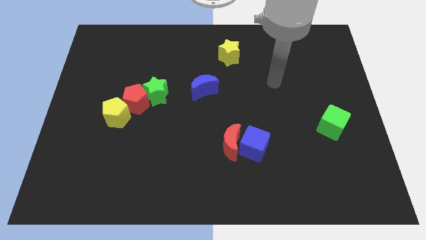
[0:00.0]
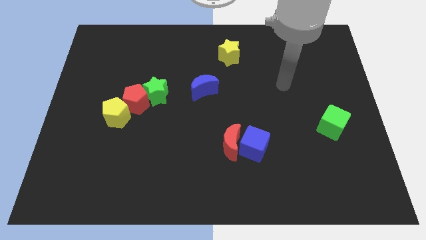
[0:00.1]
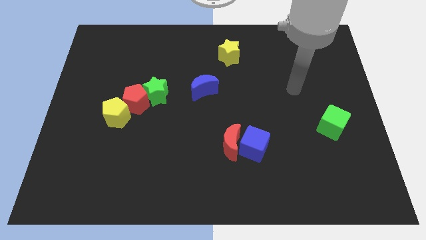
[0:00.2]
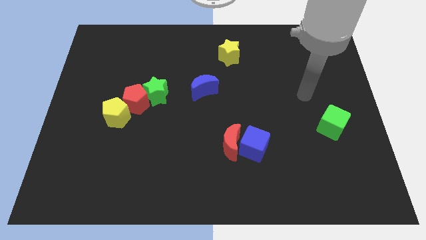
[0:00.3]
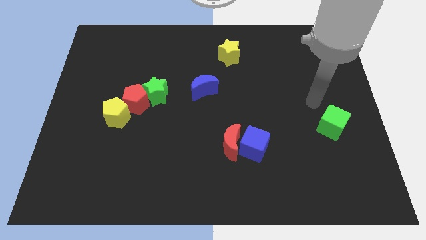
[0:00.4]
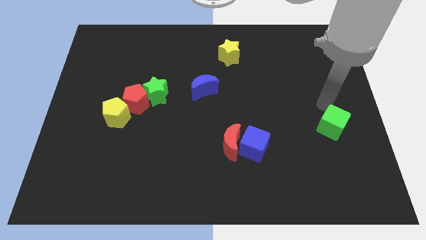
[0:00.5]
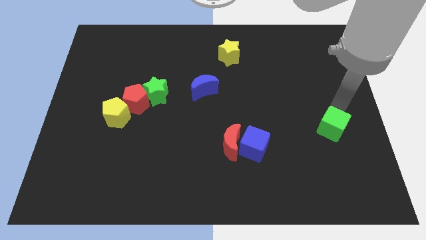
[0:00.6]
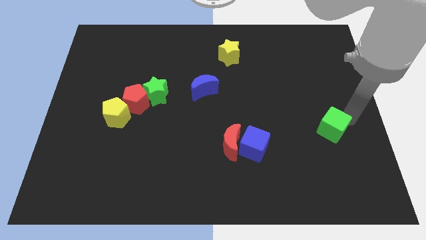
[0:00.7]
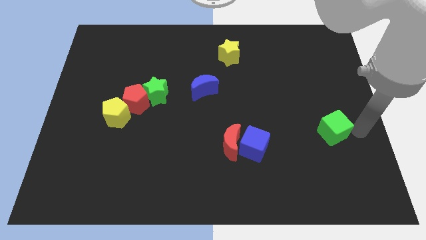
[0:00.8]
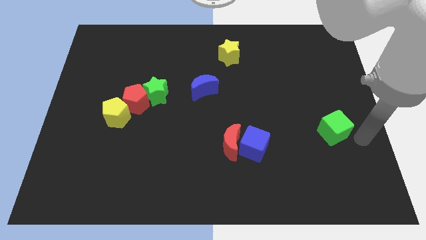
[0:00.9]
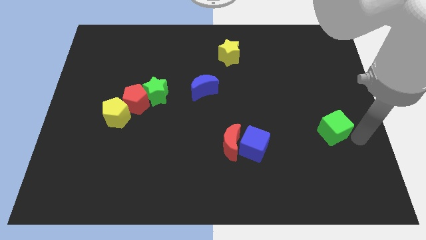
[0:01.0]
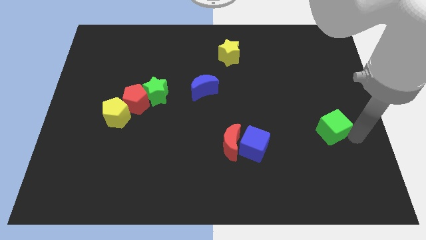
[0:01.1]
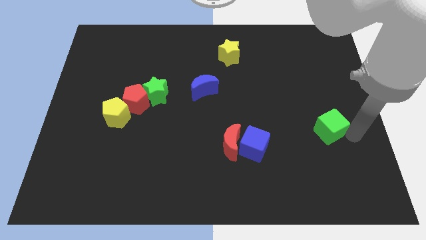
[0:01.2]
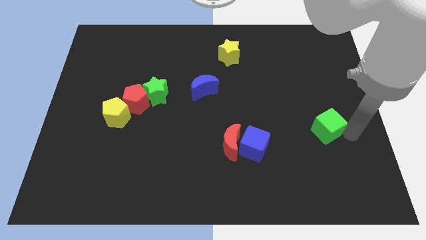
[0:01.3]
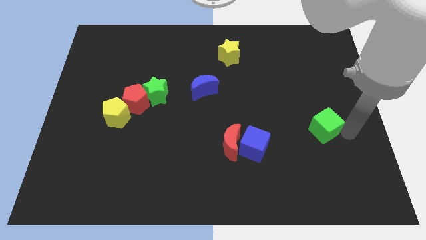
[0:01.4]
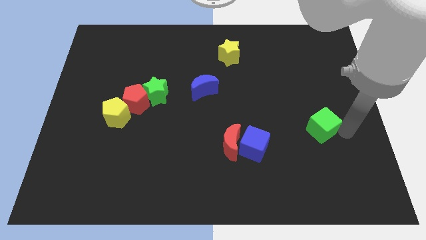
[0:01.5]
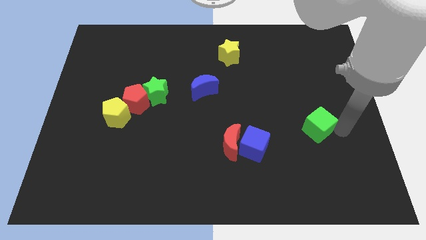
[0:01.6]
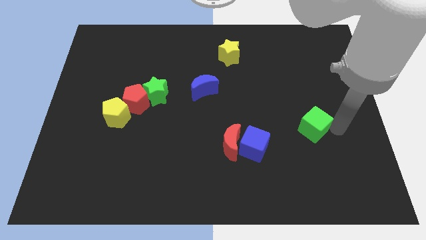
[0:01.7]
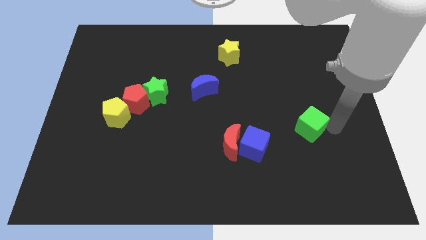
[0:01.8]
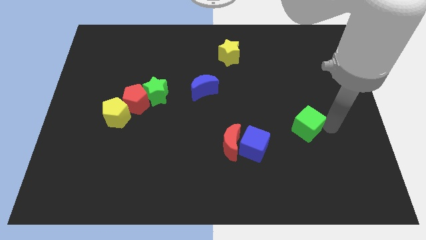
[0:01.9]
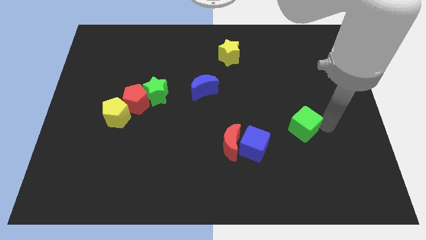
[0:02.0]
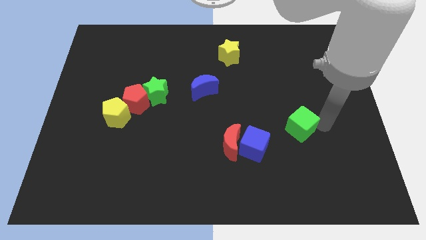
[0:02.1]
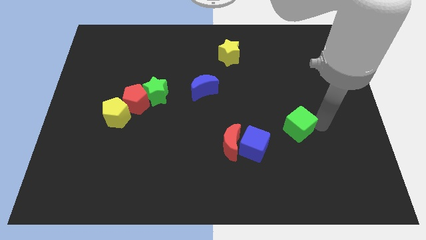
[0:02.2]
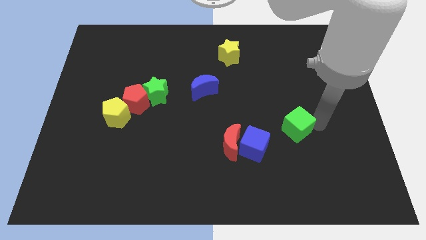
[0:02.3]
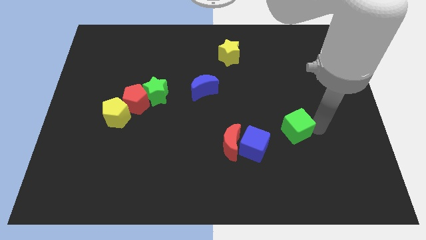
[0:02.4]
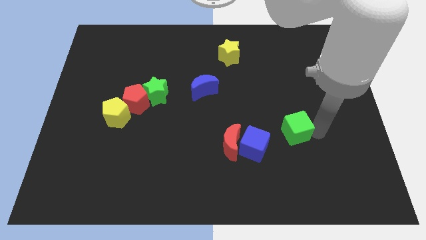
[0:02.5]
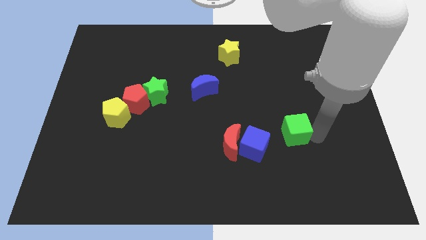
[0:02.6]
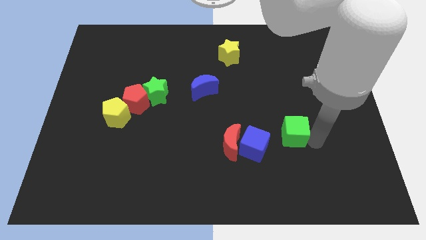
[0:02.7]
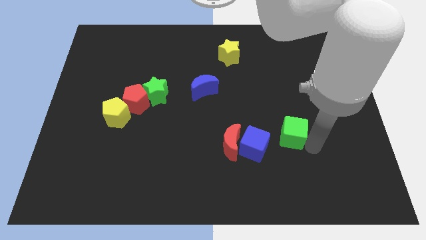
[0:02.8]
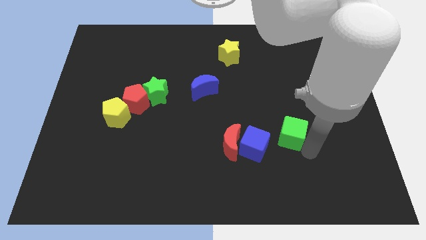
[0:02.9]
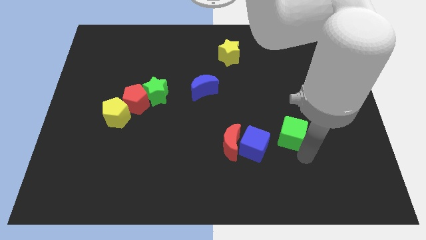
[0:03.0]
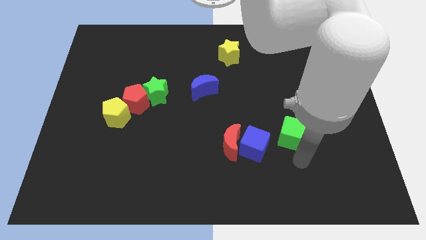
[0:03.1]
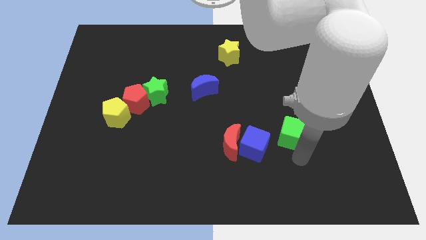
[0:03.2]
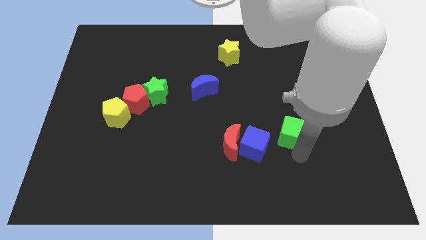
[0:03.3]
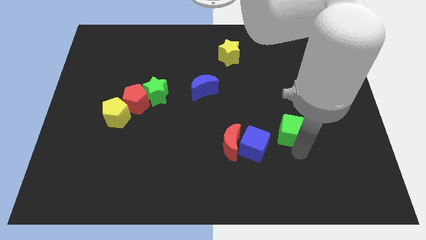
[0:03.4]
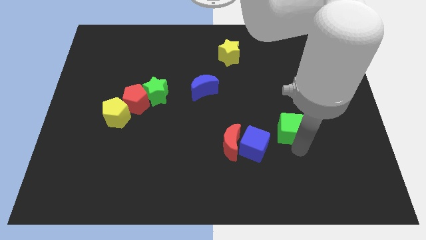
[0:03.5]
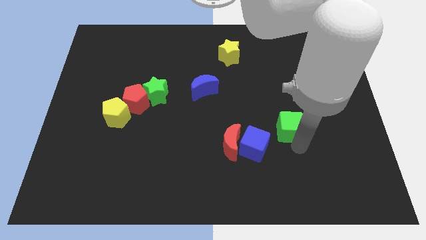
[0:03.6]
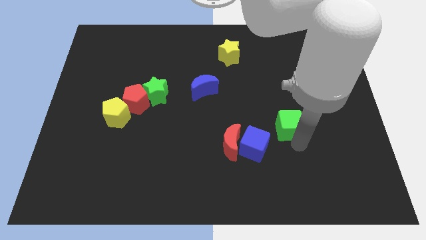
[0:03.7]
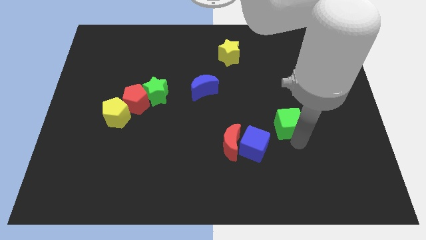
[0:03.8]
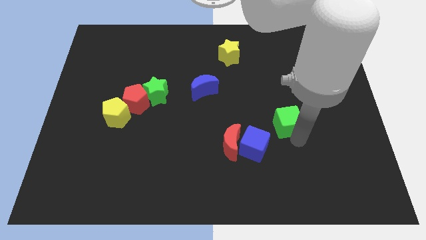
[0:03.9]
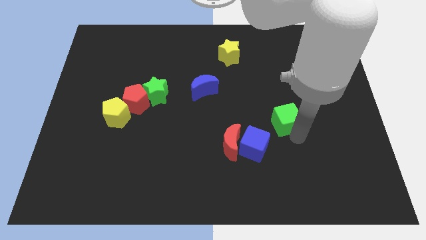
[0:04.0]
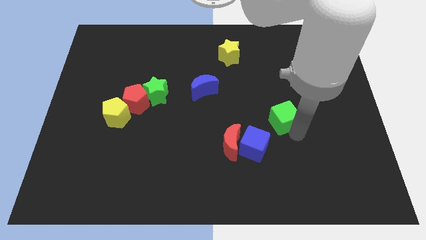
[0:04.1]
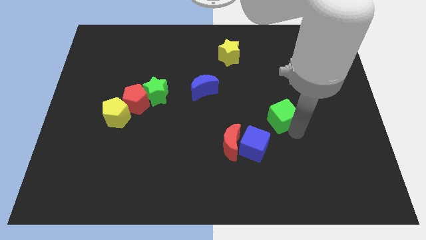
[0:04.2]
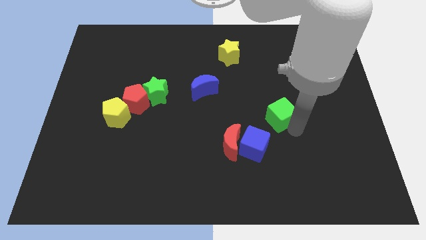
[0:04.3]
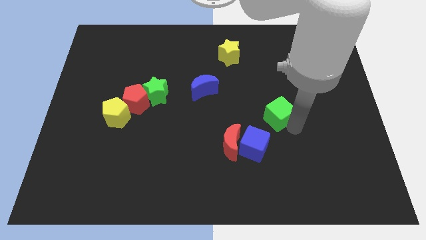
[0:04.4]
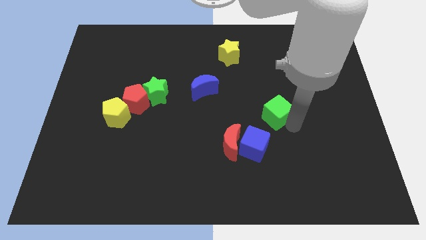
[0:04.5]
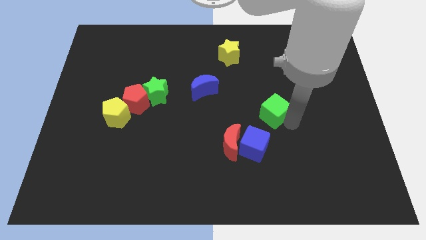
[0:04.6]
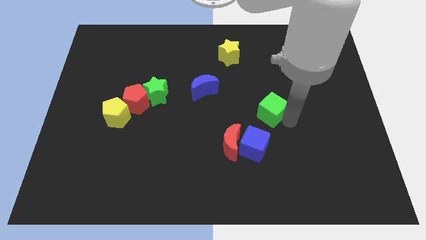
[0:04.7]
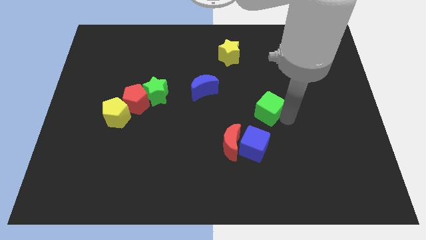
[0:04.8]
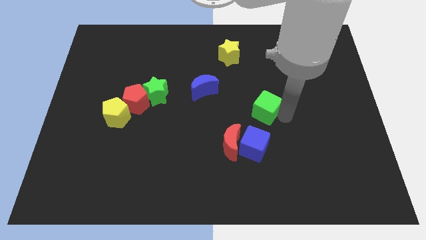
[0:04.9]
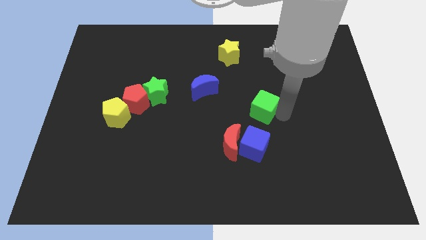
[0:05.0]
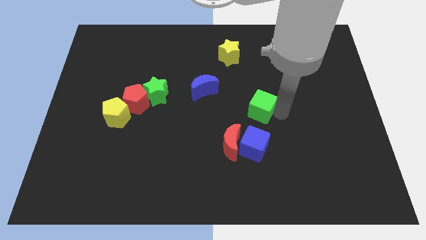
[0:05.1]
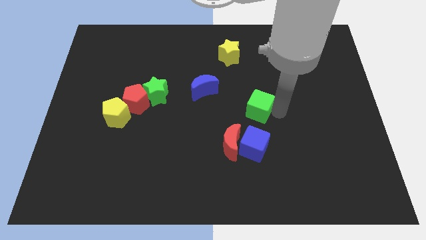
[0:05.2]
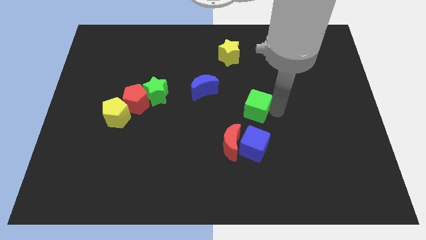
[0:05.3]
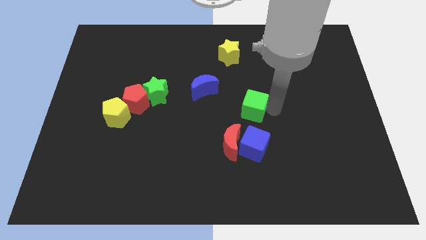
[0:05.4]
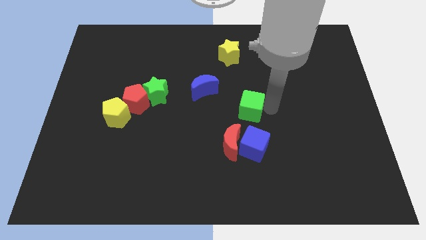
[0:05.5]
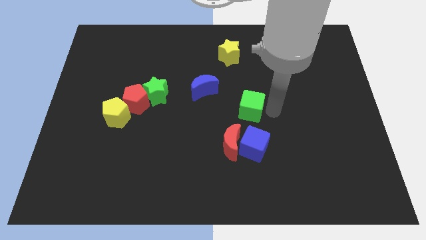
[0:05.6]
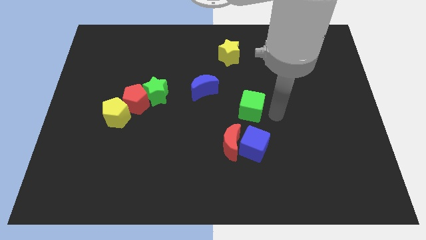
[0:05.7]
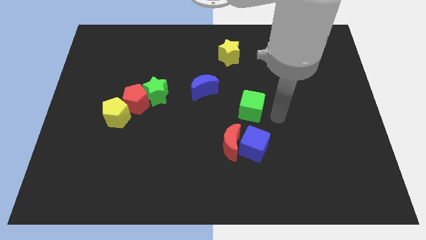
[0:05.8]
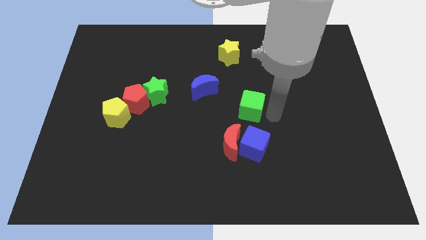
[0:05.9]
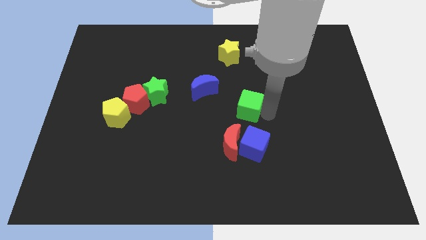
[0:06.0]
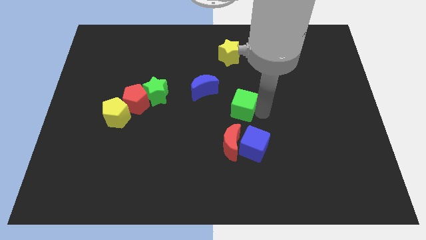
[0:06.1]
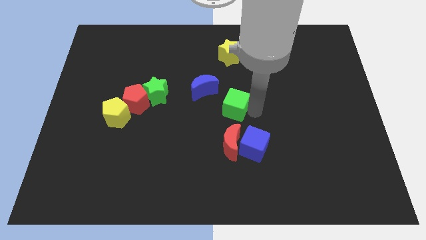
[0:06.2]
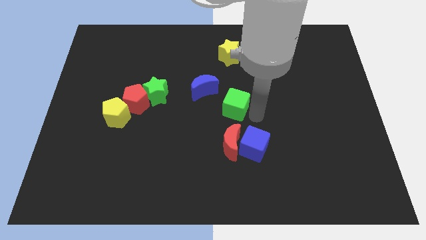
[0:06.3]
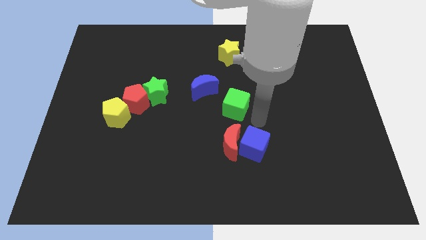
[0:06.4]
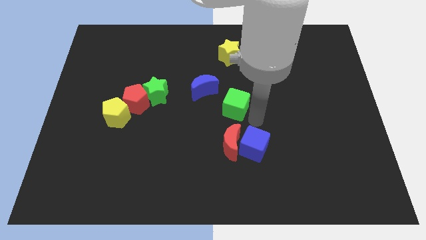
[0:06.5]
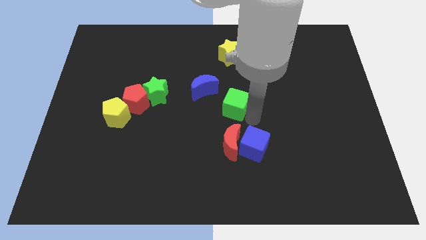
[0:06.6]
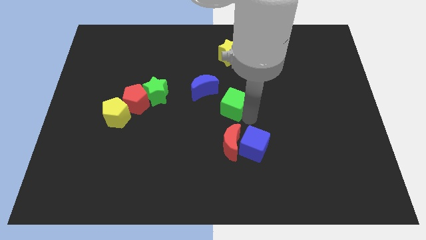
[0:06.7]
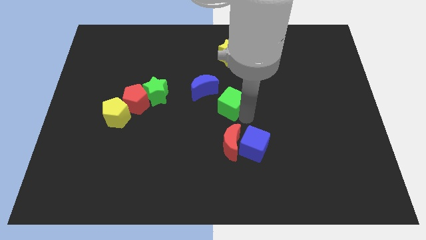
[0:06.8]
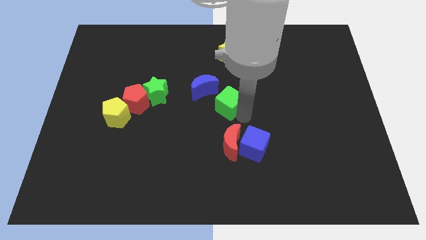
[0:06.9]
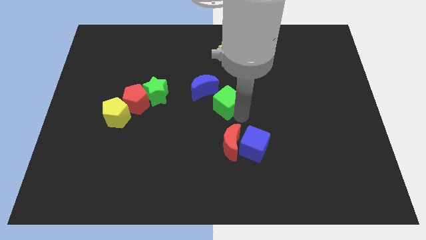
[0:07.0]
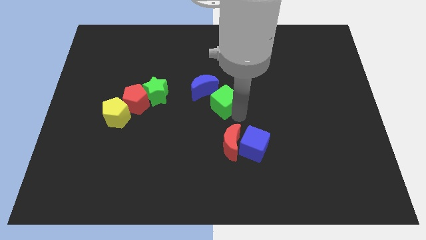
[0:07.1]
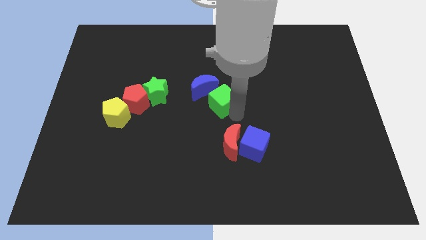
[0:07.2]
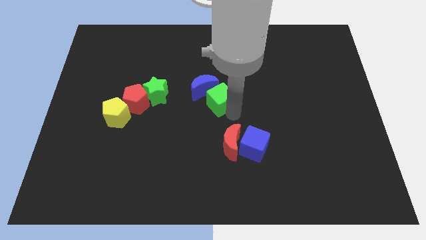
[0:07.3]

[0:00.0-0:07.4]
push the green cube towards the blue moon

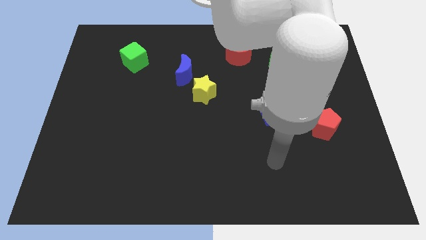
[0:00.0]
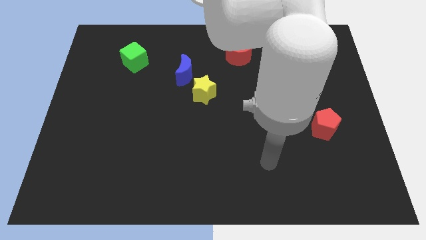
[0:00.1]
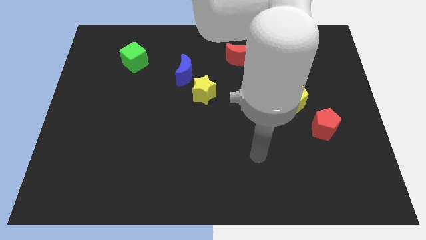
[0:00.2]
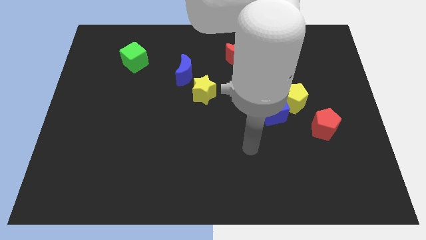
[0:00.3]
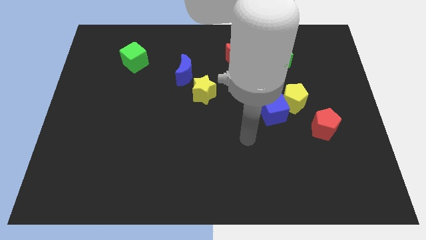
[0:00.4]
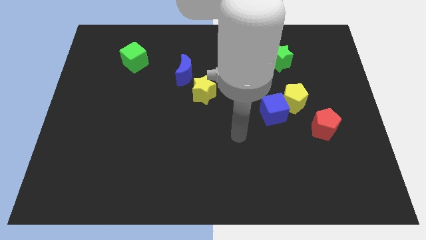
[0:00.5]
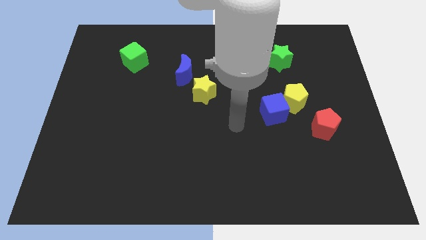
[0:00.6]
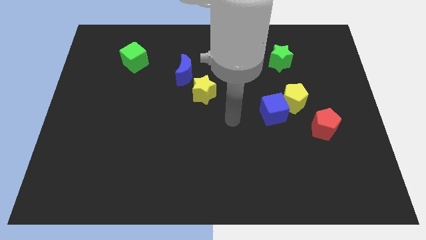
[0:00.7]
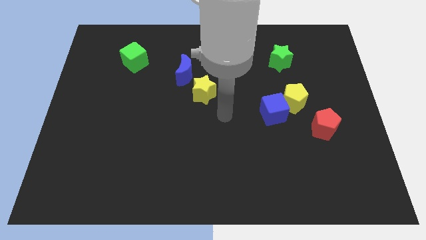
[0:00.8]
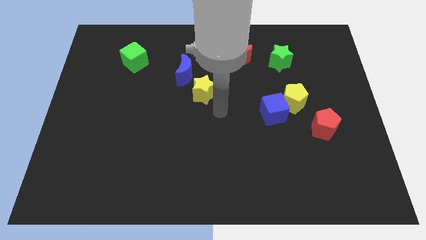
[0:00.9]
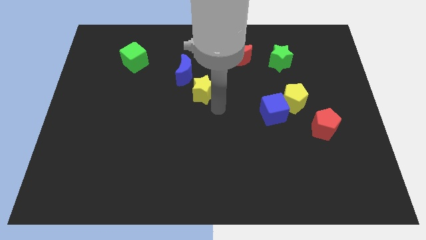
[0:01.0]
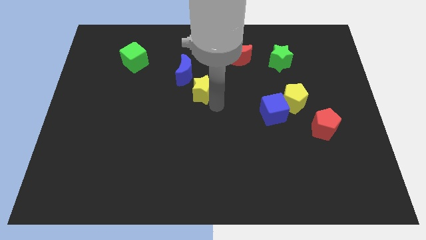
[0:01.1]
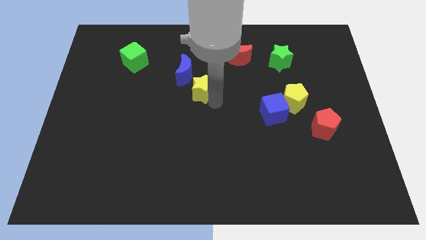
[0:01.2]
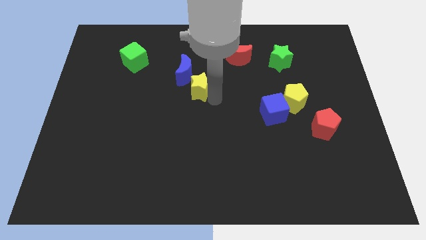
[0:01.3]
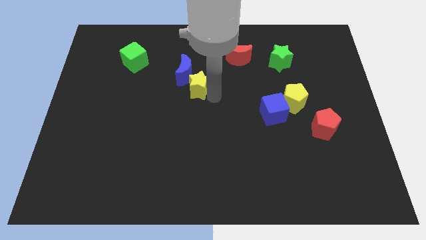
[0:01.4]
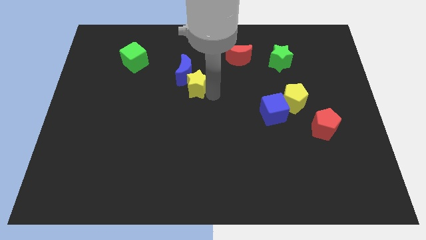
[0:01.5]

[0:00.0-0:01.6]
push the yellow star close to the blue moon
